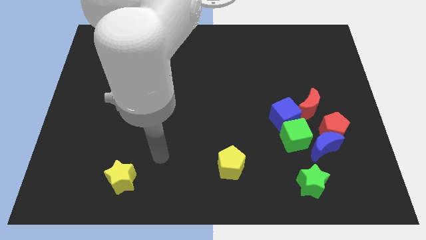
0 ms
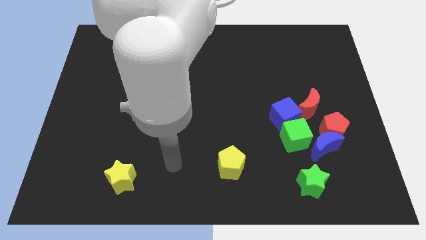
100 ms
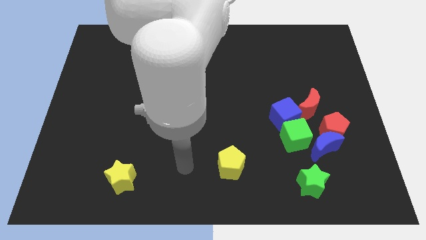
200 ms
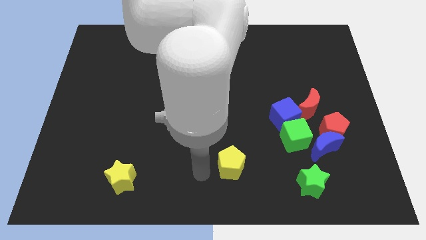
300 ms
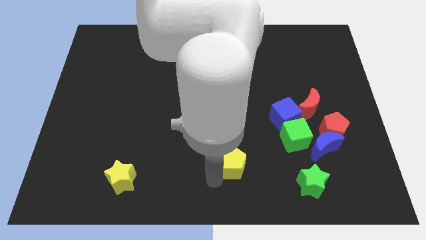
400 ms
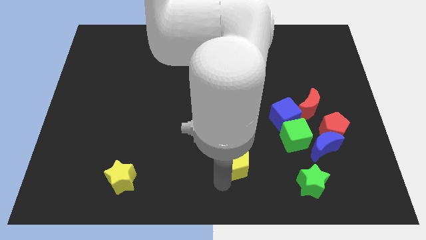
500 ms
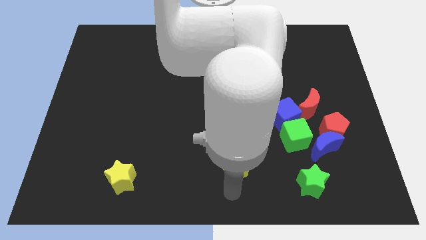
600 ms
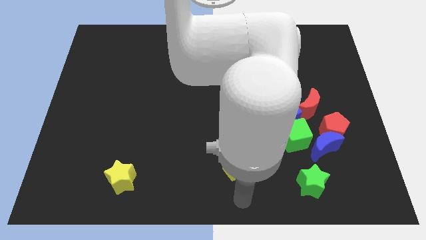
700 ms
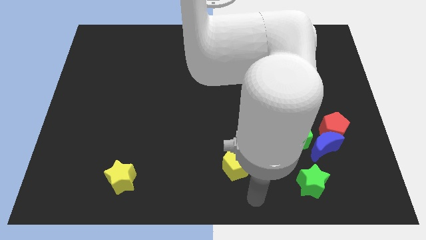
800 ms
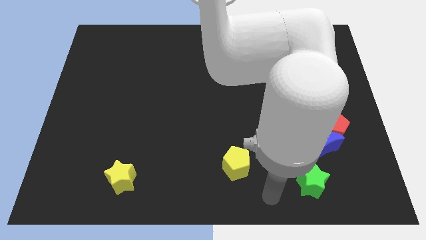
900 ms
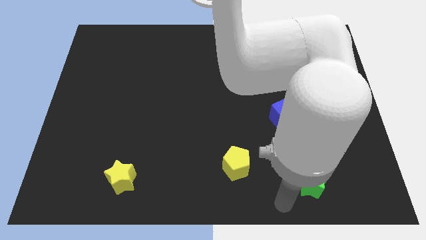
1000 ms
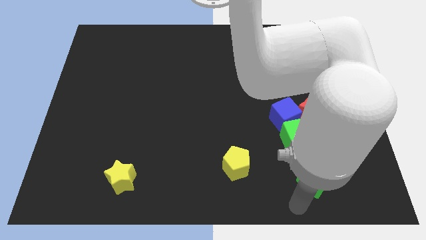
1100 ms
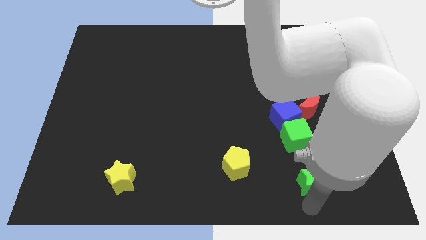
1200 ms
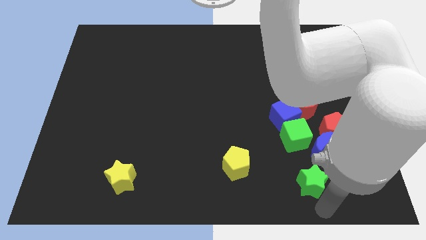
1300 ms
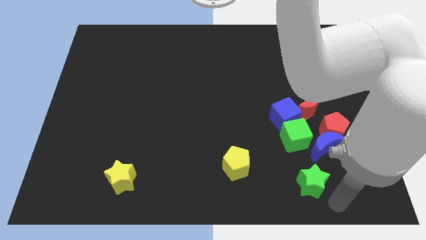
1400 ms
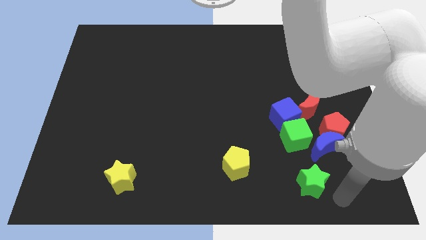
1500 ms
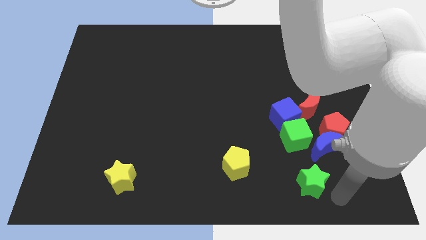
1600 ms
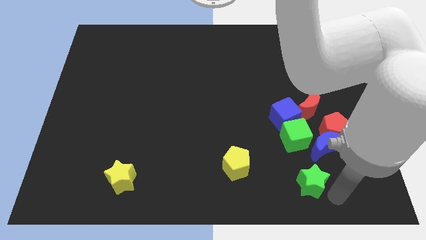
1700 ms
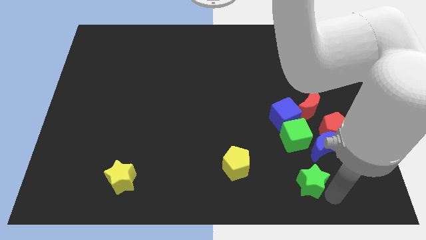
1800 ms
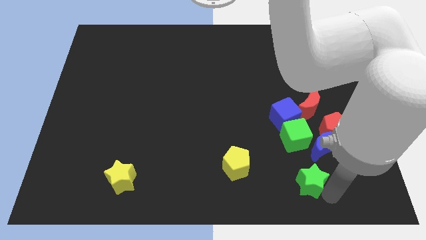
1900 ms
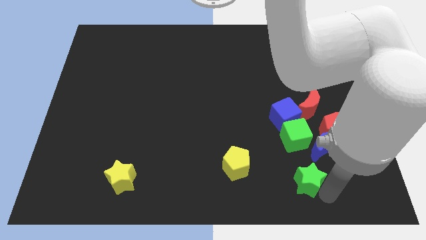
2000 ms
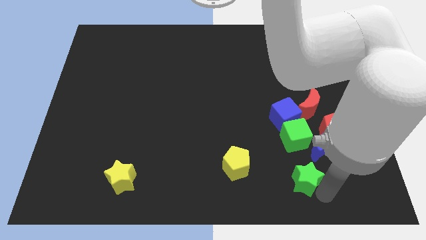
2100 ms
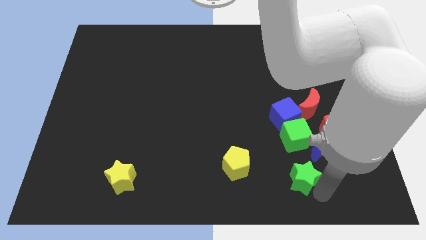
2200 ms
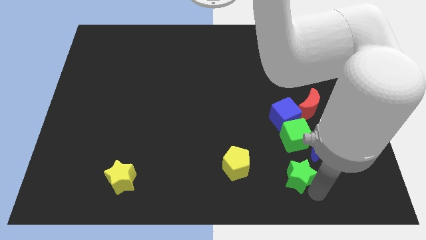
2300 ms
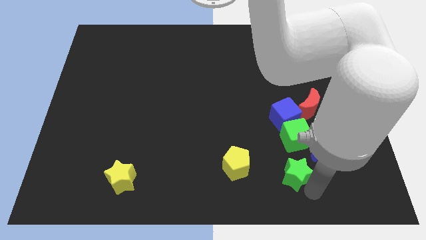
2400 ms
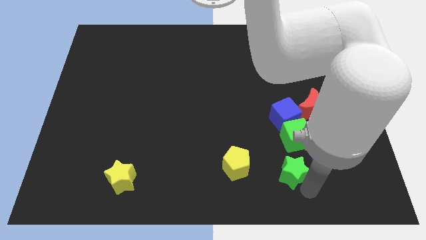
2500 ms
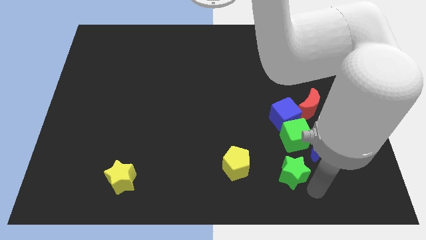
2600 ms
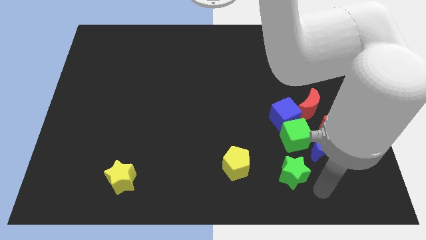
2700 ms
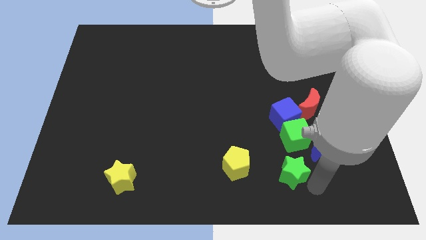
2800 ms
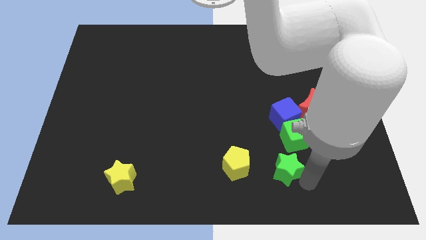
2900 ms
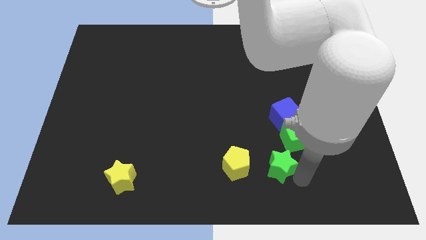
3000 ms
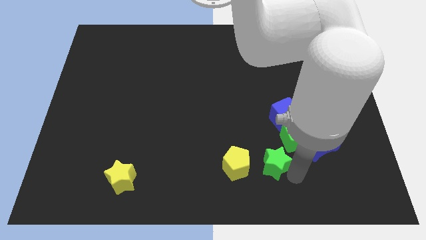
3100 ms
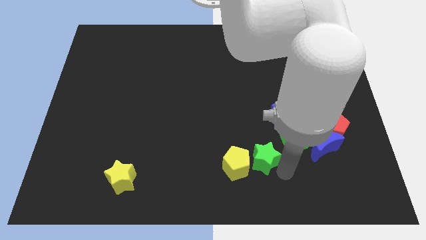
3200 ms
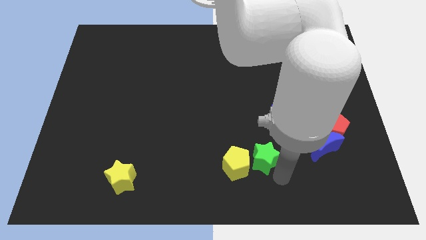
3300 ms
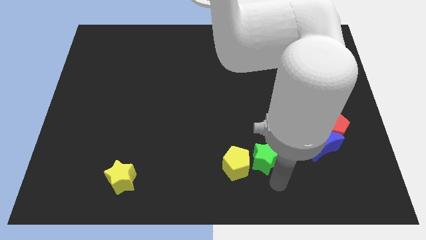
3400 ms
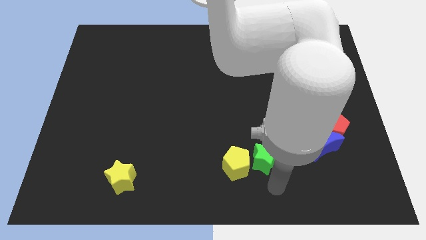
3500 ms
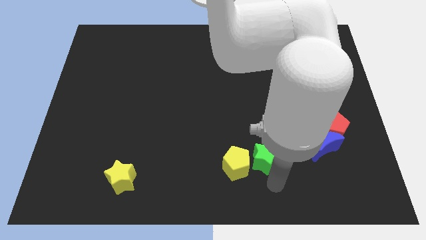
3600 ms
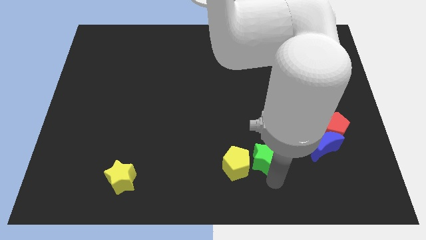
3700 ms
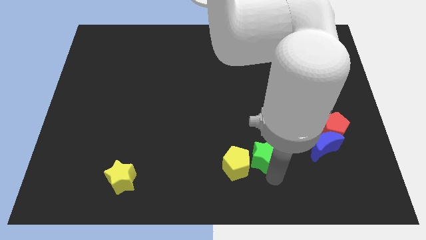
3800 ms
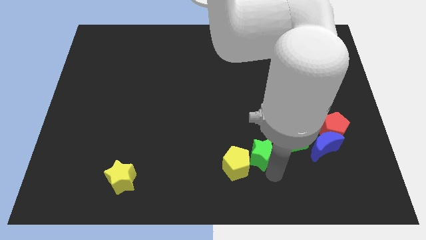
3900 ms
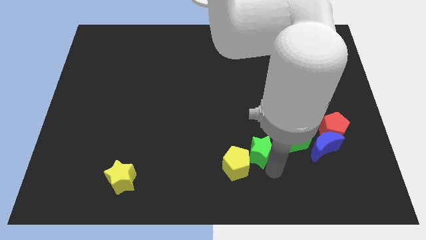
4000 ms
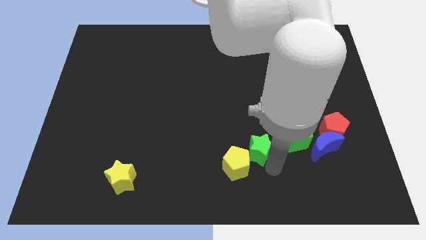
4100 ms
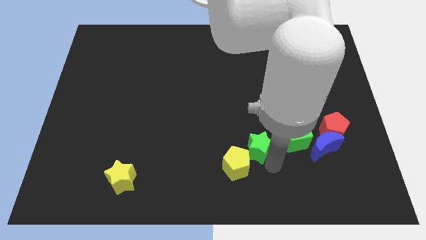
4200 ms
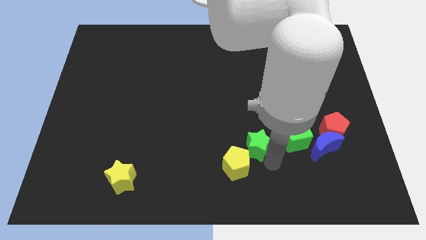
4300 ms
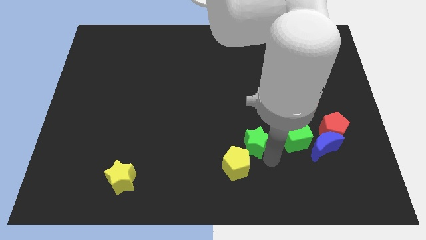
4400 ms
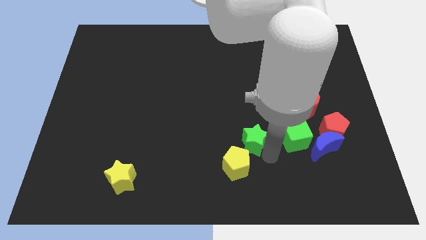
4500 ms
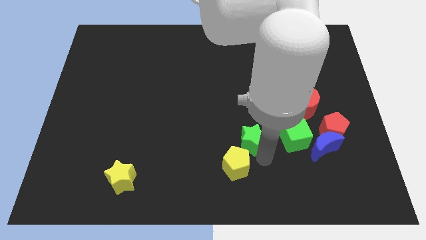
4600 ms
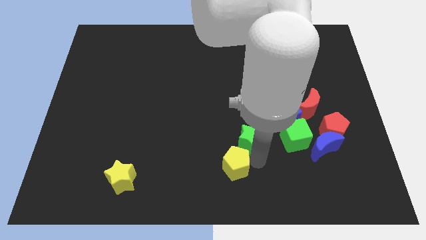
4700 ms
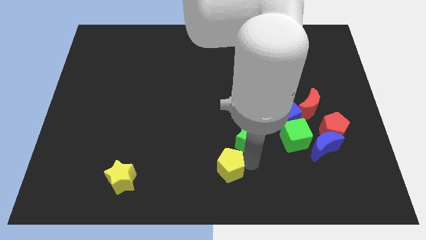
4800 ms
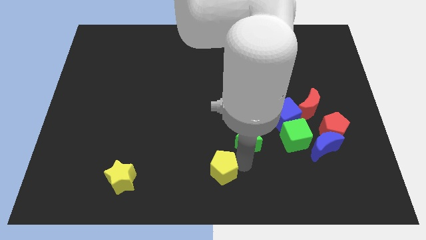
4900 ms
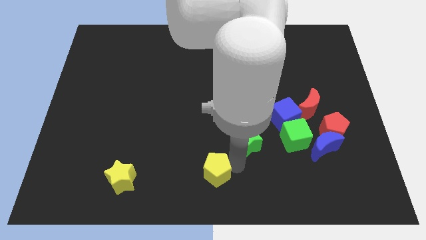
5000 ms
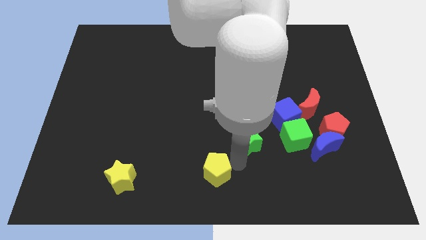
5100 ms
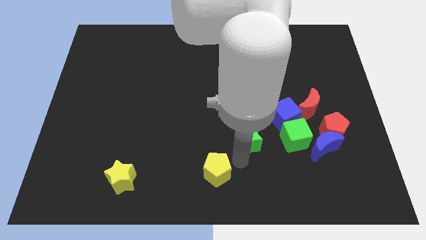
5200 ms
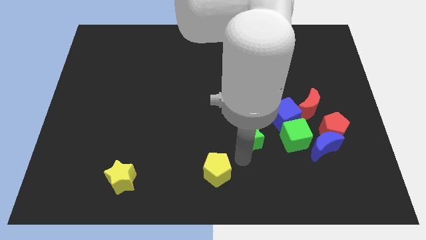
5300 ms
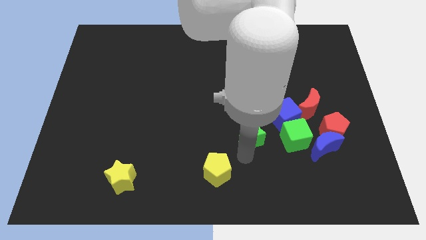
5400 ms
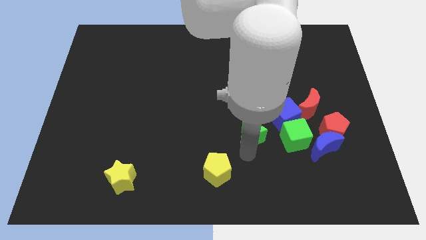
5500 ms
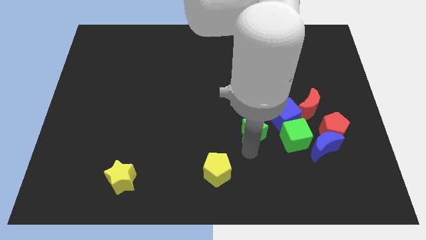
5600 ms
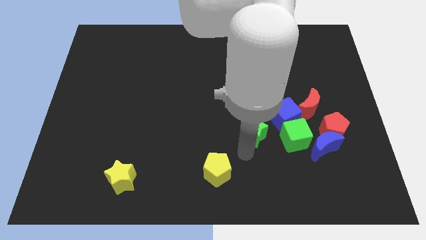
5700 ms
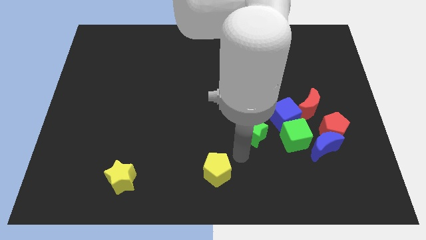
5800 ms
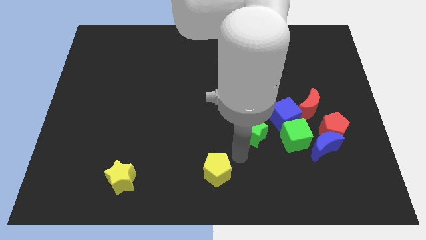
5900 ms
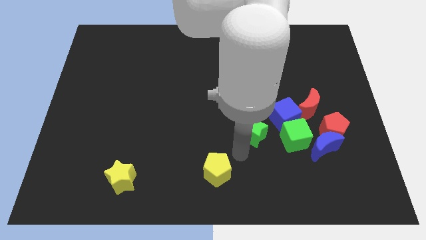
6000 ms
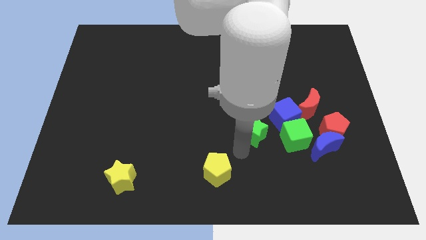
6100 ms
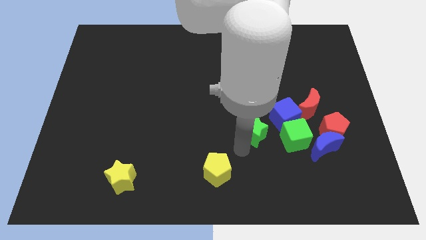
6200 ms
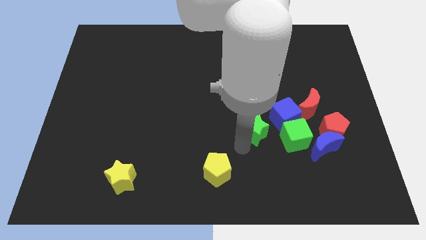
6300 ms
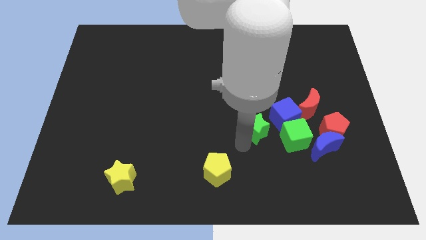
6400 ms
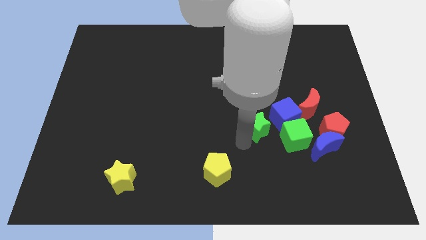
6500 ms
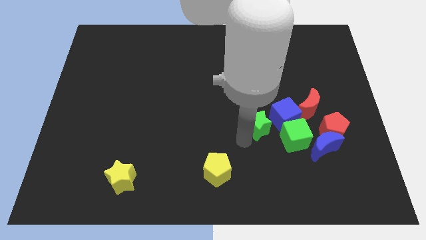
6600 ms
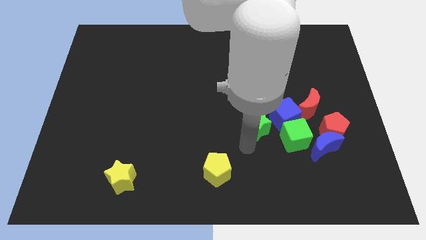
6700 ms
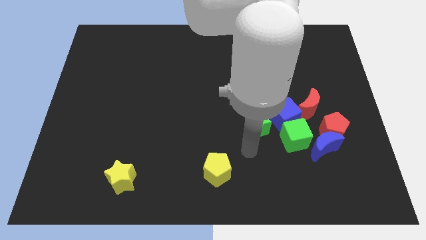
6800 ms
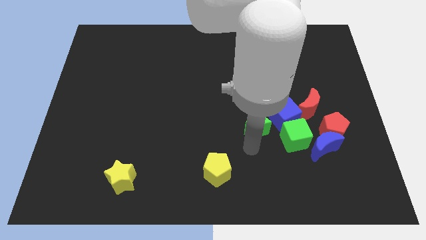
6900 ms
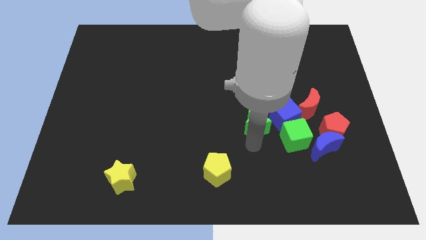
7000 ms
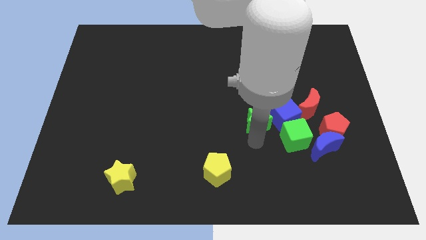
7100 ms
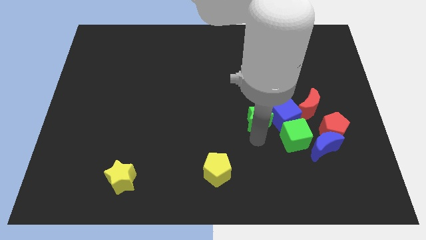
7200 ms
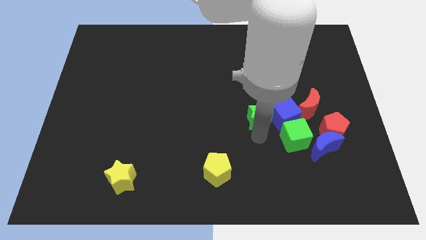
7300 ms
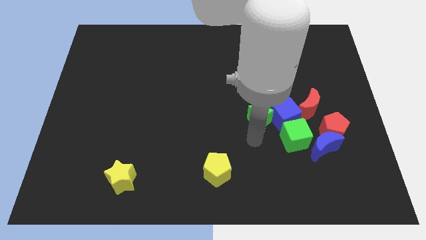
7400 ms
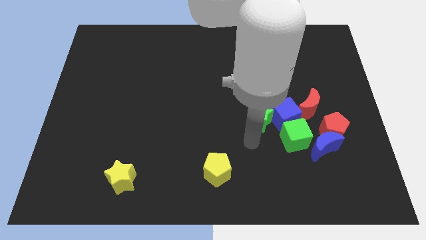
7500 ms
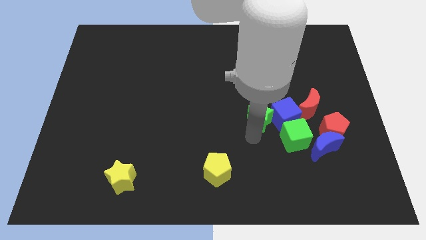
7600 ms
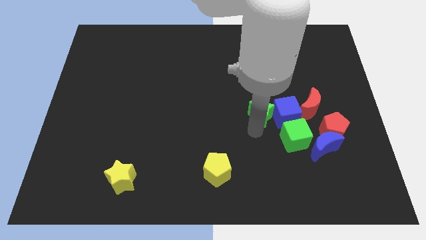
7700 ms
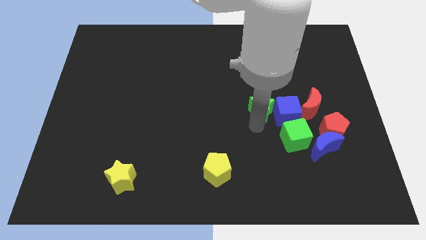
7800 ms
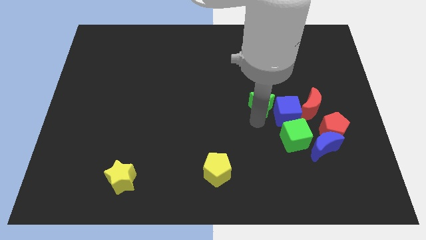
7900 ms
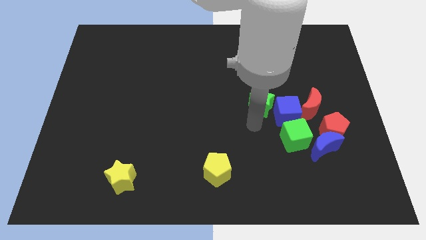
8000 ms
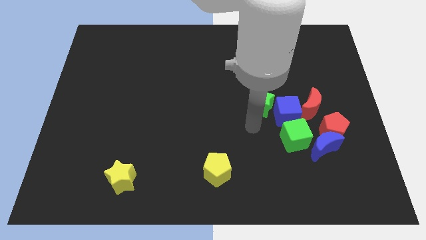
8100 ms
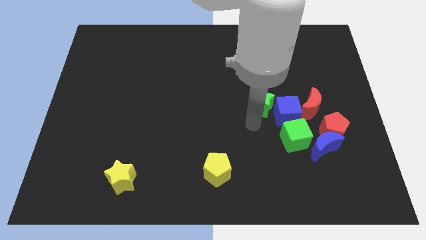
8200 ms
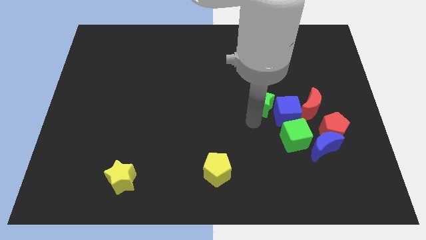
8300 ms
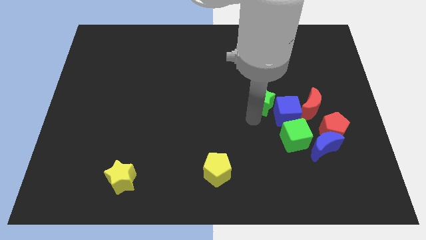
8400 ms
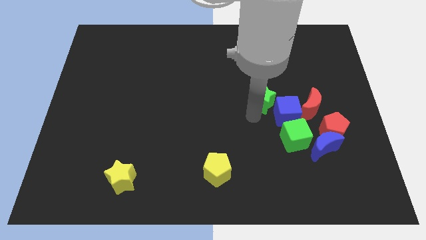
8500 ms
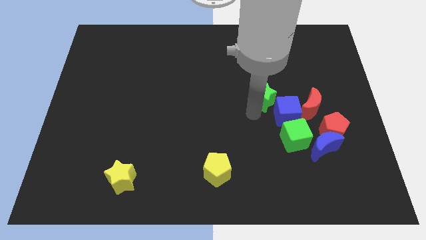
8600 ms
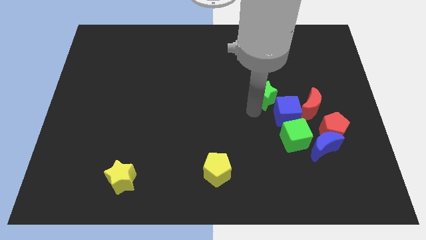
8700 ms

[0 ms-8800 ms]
push the green star upwards
